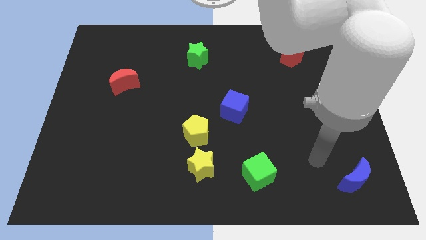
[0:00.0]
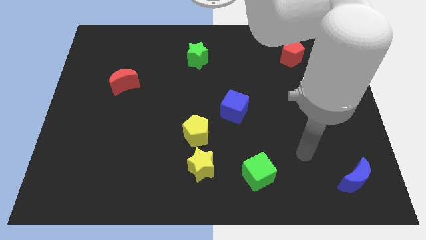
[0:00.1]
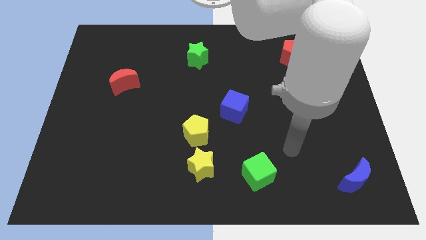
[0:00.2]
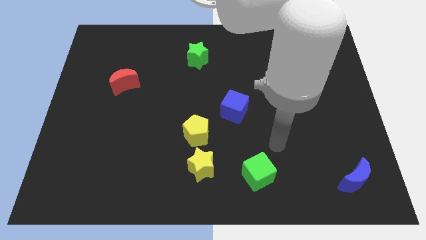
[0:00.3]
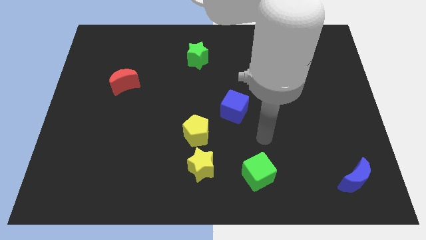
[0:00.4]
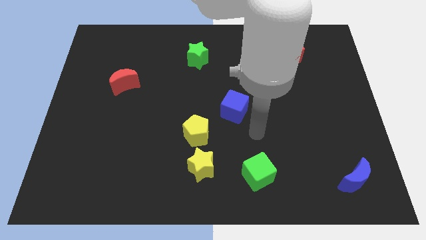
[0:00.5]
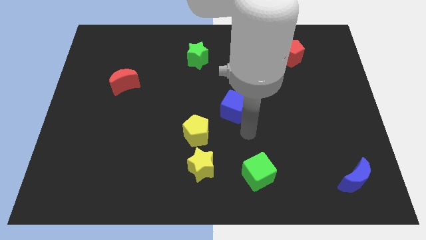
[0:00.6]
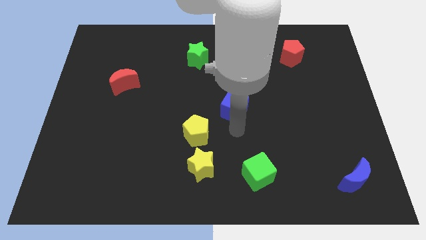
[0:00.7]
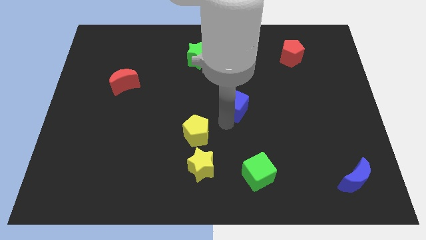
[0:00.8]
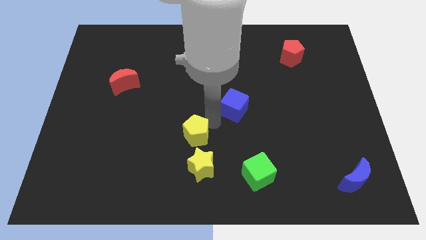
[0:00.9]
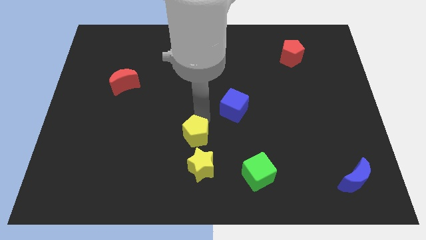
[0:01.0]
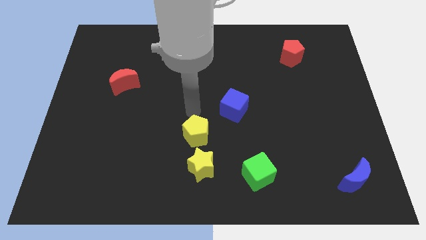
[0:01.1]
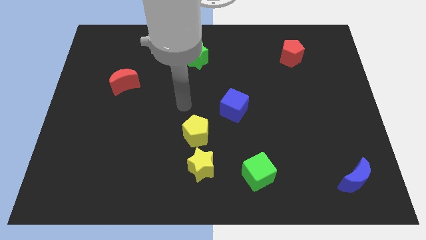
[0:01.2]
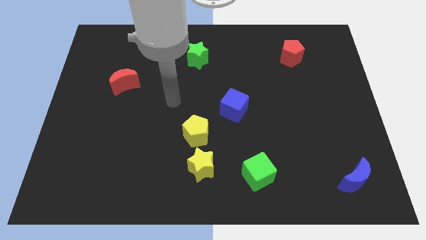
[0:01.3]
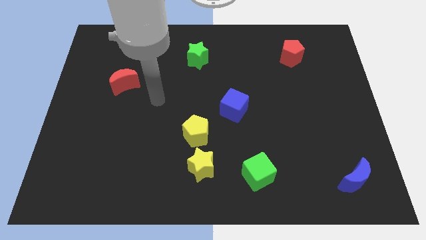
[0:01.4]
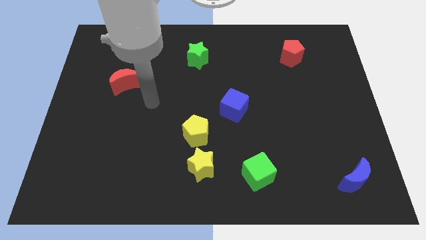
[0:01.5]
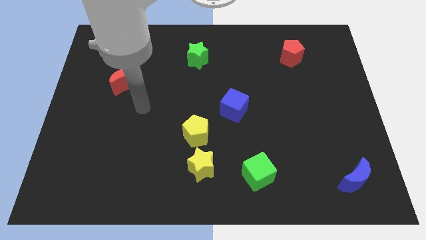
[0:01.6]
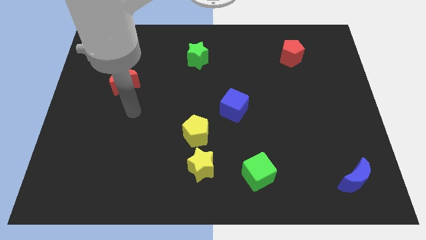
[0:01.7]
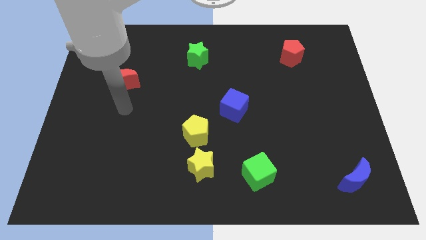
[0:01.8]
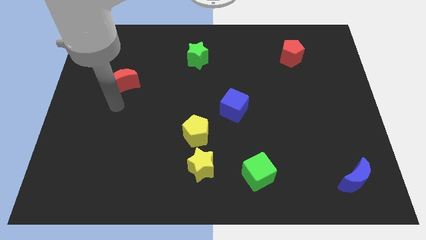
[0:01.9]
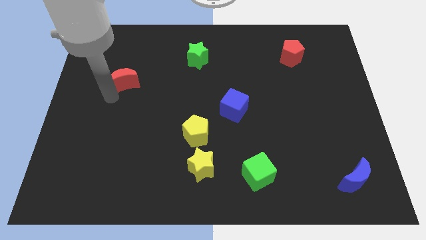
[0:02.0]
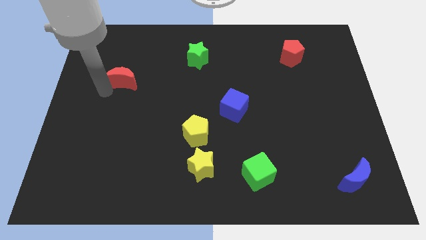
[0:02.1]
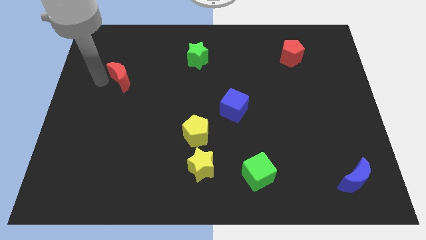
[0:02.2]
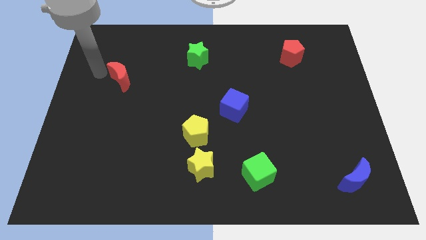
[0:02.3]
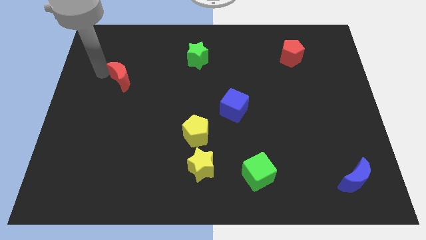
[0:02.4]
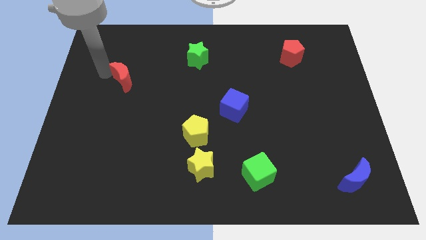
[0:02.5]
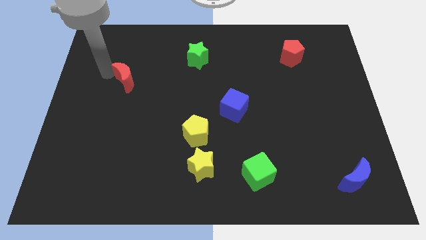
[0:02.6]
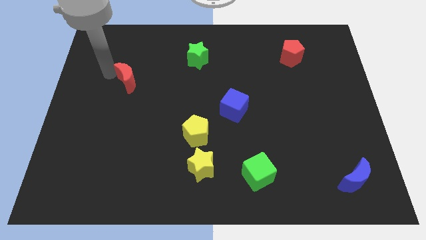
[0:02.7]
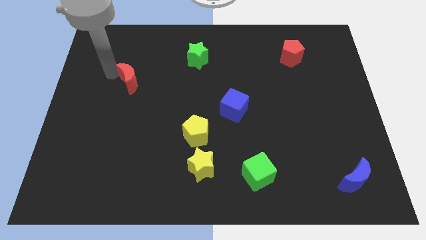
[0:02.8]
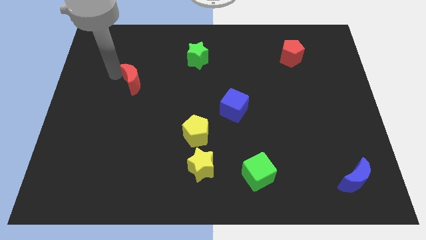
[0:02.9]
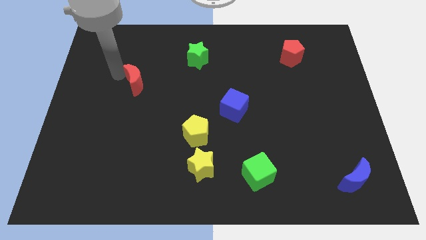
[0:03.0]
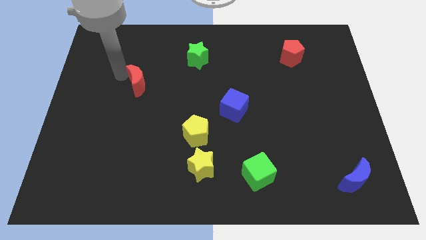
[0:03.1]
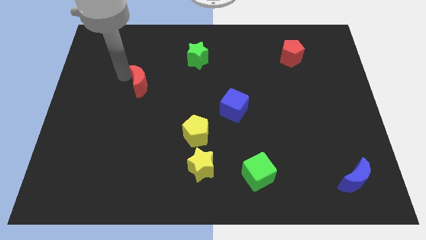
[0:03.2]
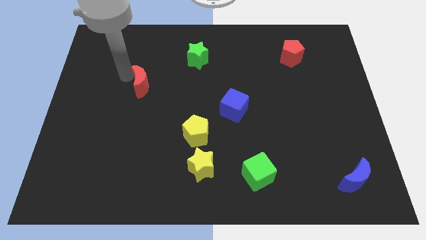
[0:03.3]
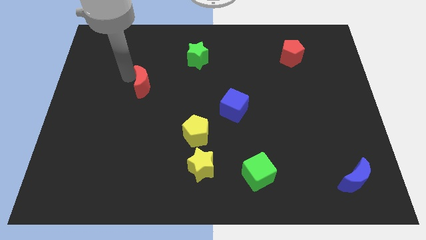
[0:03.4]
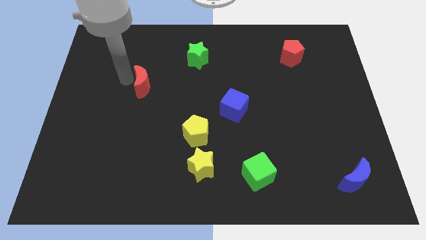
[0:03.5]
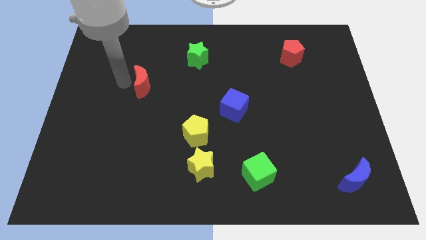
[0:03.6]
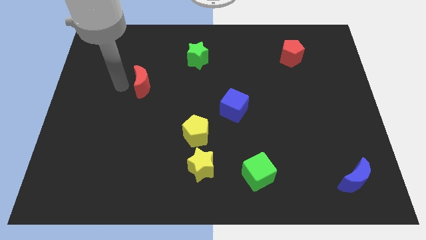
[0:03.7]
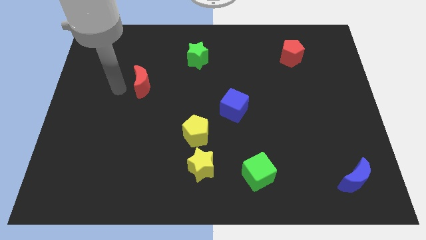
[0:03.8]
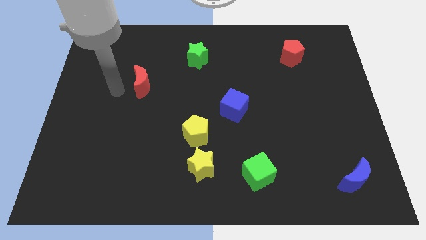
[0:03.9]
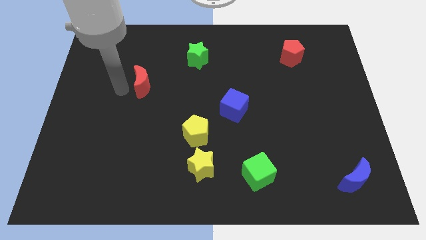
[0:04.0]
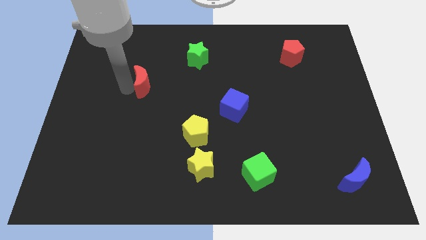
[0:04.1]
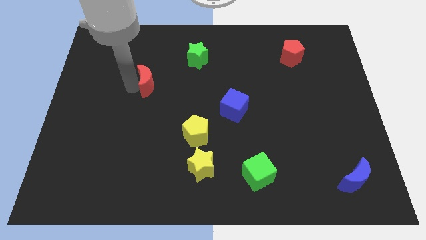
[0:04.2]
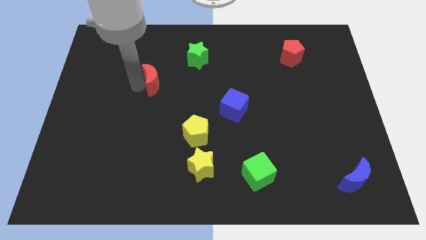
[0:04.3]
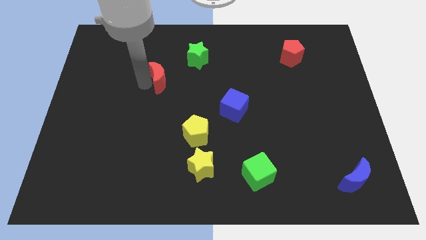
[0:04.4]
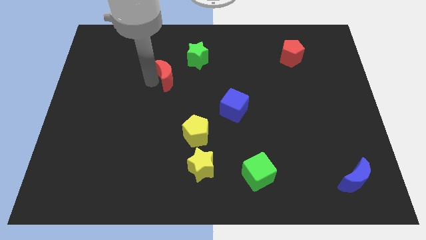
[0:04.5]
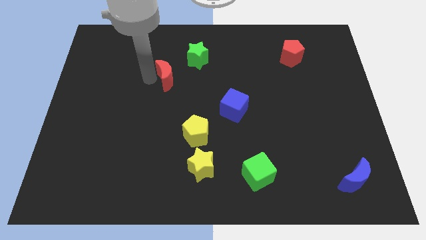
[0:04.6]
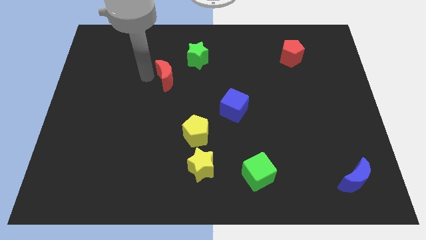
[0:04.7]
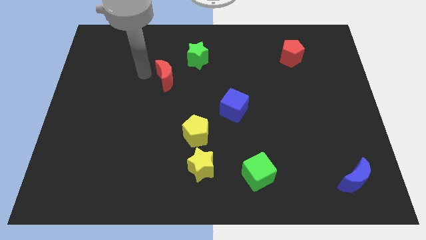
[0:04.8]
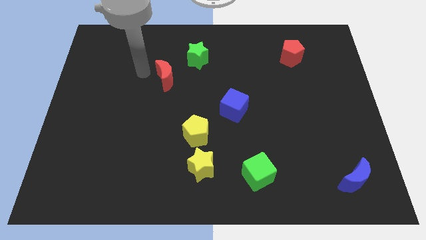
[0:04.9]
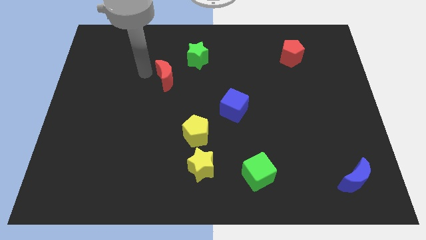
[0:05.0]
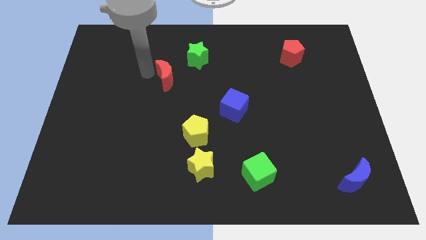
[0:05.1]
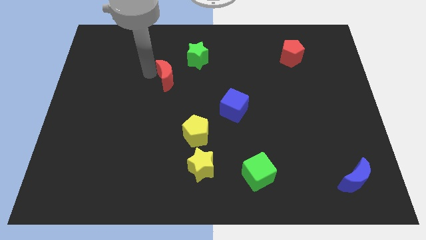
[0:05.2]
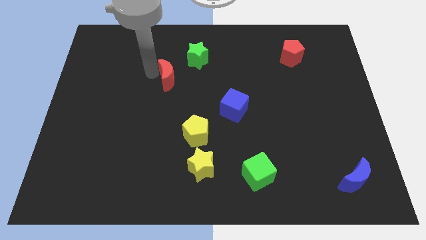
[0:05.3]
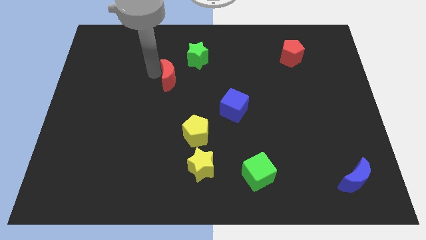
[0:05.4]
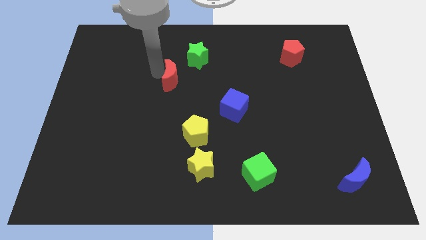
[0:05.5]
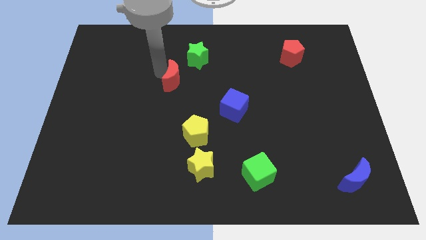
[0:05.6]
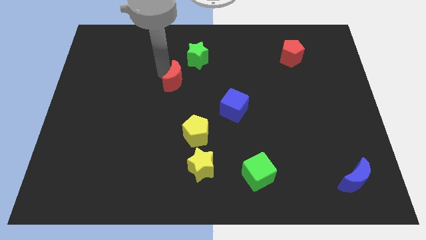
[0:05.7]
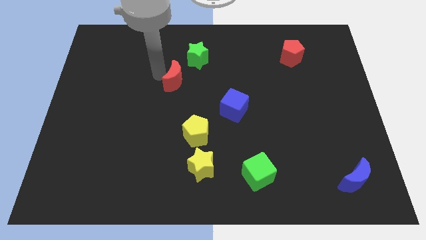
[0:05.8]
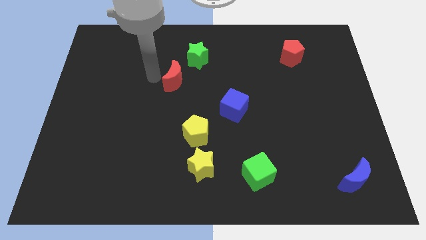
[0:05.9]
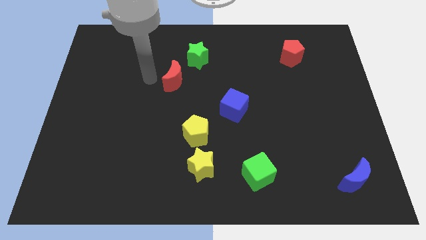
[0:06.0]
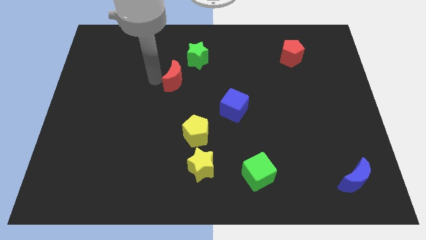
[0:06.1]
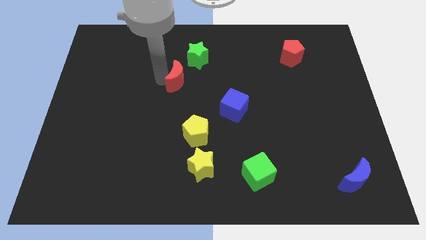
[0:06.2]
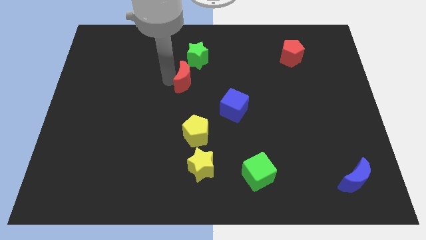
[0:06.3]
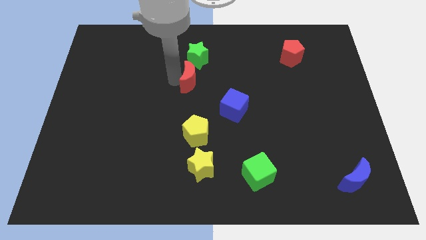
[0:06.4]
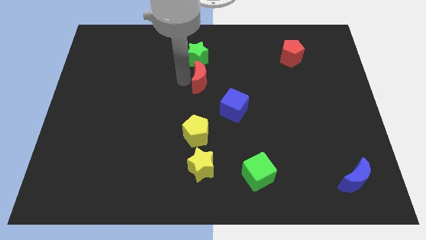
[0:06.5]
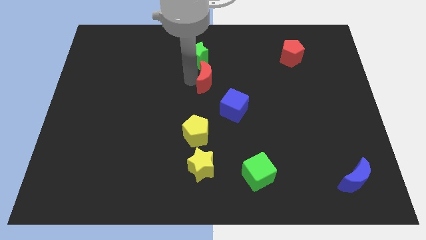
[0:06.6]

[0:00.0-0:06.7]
push the red moon to the right

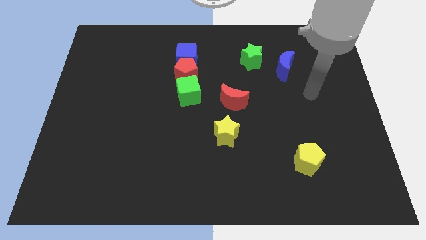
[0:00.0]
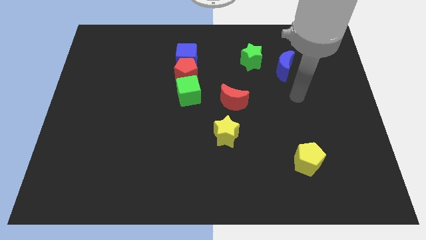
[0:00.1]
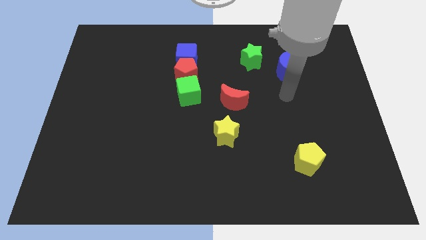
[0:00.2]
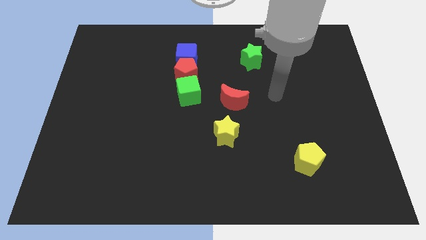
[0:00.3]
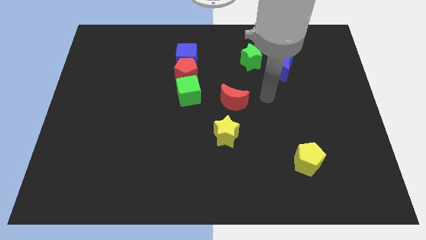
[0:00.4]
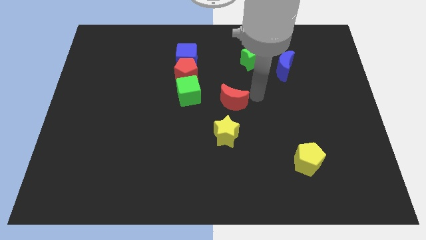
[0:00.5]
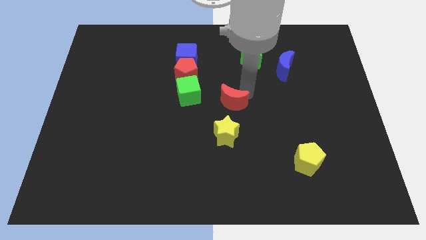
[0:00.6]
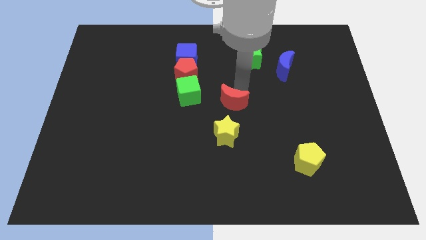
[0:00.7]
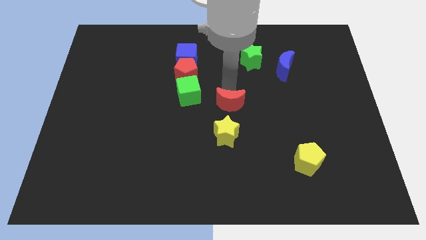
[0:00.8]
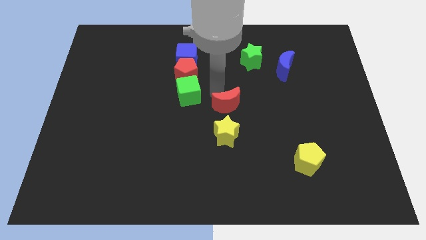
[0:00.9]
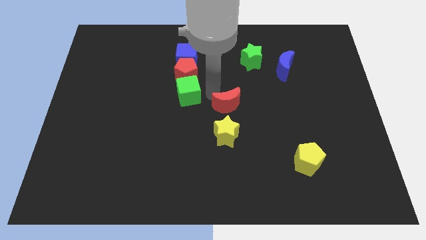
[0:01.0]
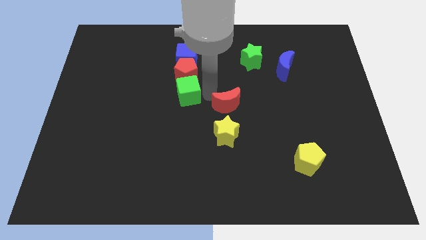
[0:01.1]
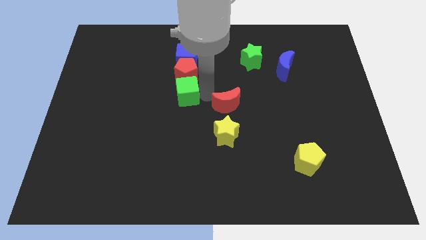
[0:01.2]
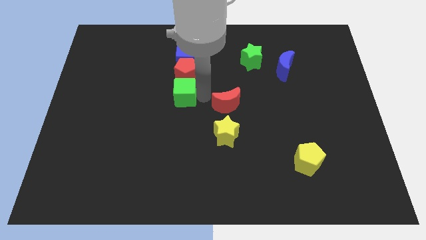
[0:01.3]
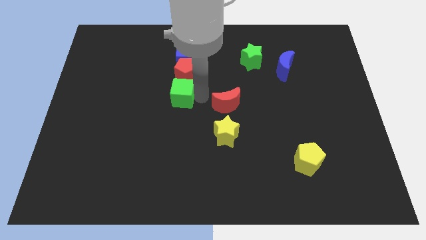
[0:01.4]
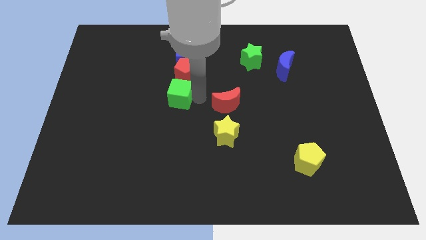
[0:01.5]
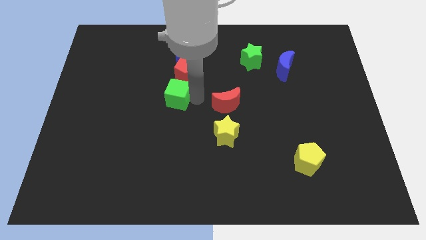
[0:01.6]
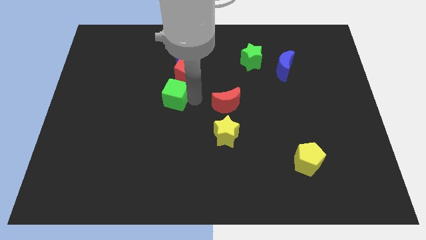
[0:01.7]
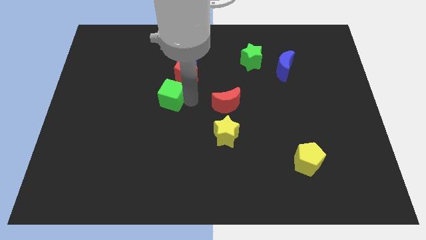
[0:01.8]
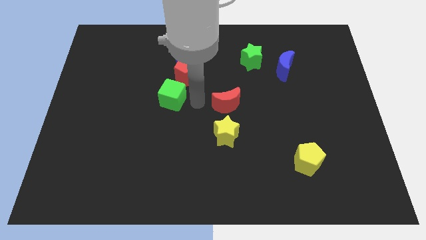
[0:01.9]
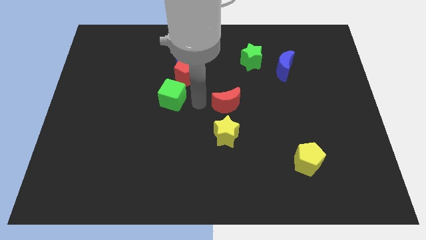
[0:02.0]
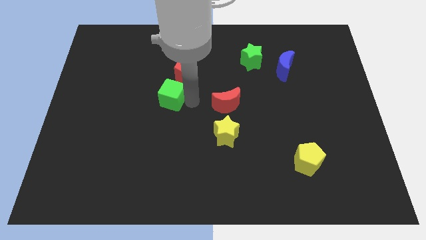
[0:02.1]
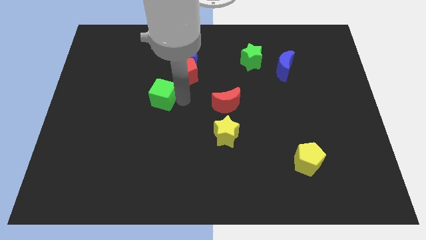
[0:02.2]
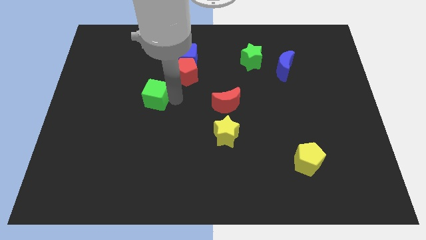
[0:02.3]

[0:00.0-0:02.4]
slightly push the green cube to the left
